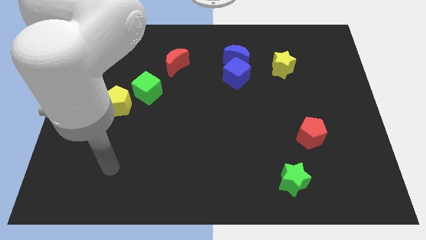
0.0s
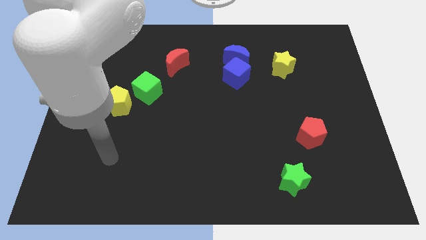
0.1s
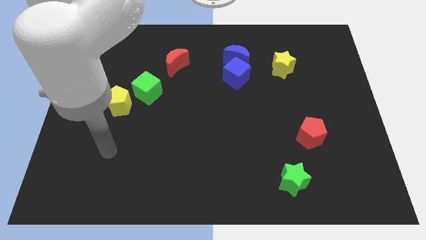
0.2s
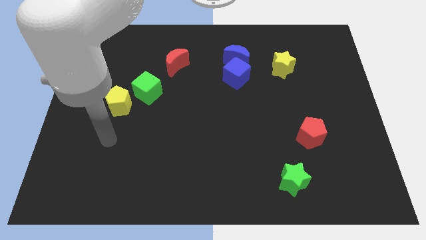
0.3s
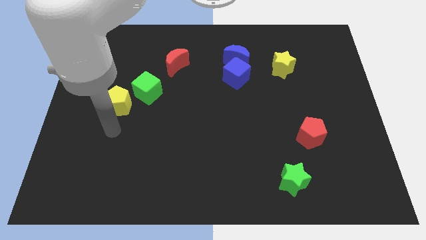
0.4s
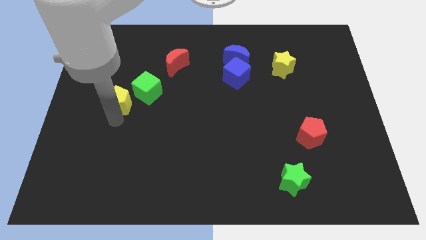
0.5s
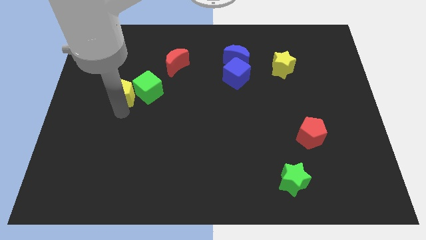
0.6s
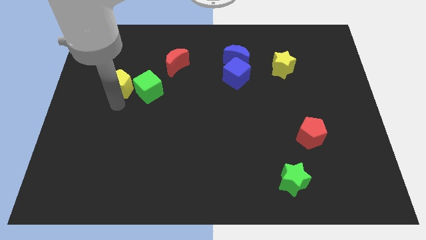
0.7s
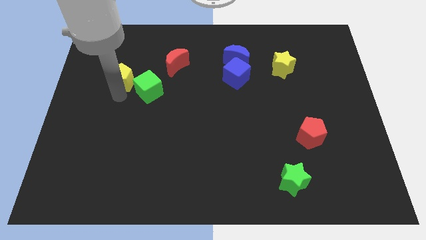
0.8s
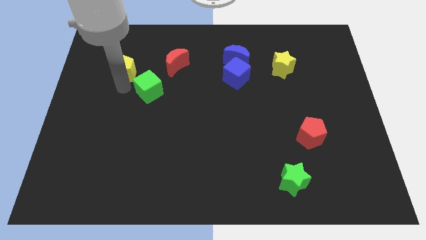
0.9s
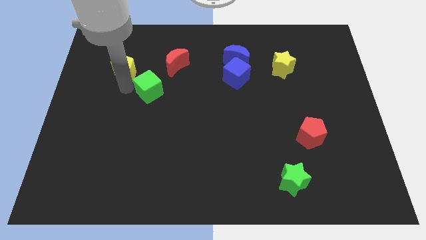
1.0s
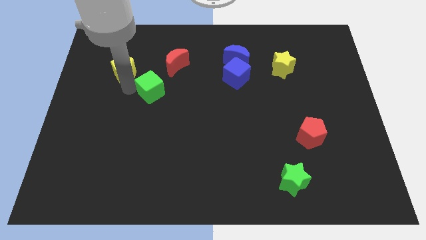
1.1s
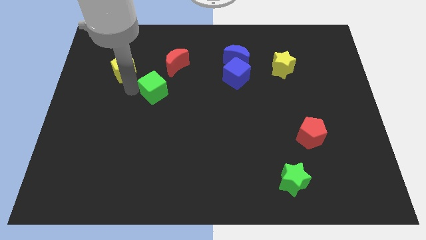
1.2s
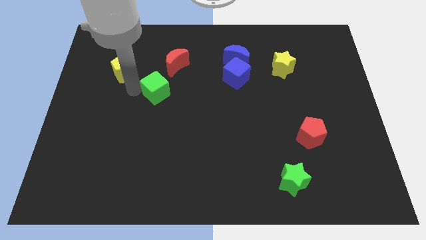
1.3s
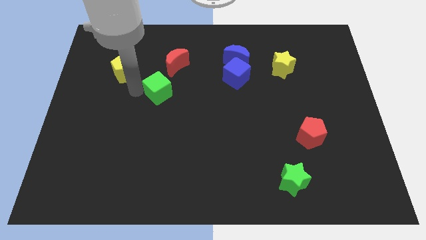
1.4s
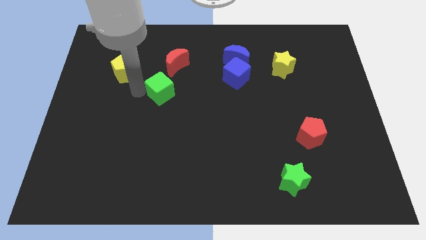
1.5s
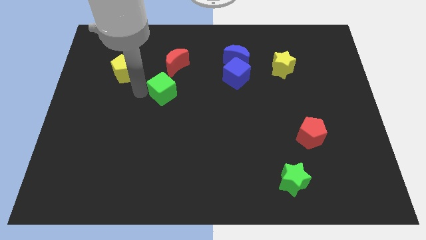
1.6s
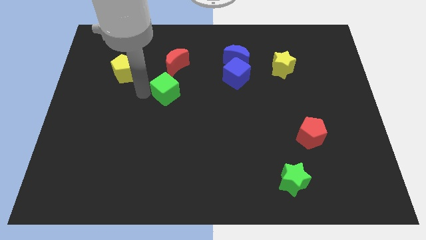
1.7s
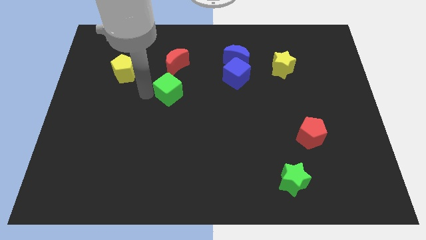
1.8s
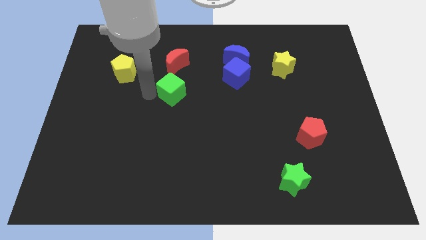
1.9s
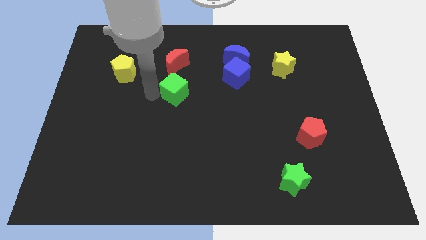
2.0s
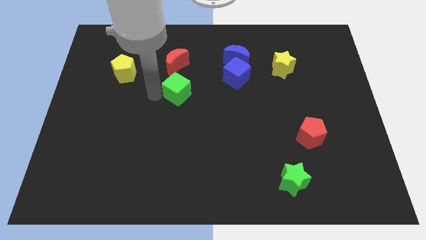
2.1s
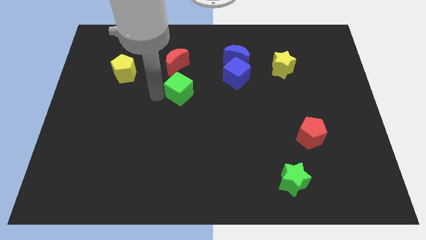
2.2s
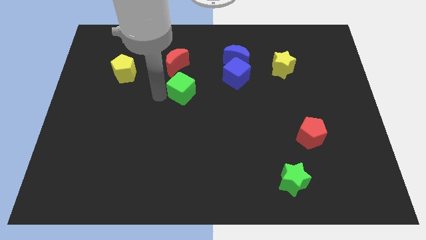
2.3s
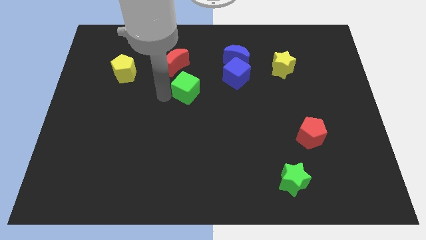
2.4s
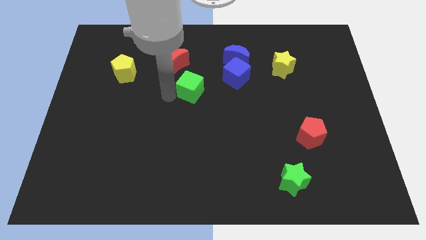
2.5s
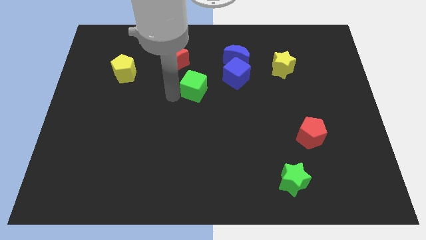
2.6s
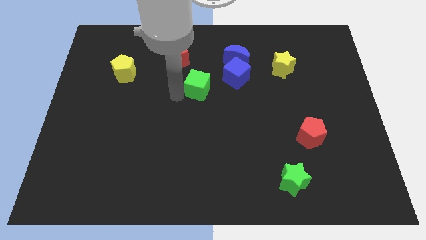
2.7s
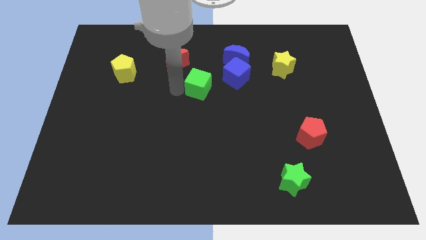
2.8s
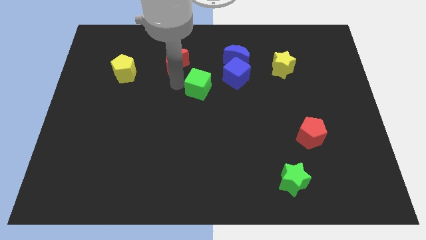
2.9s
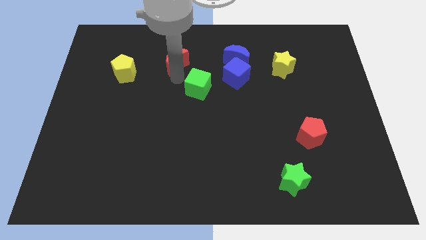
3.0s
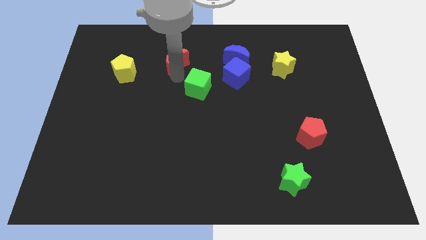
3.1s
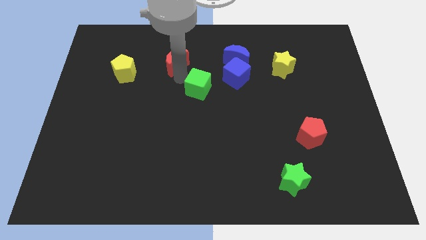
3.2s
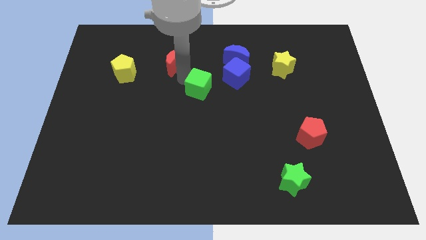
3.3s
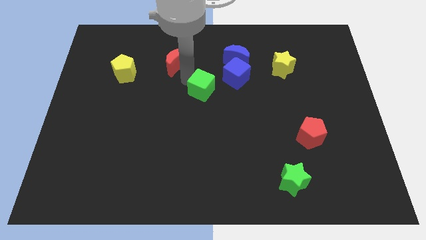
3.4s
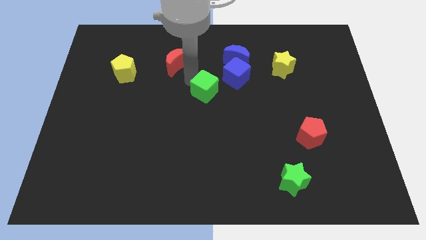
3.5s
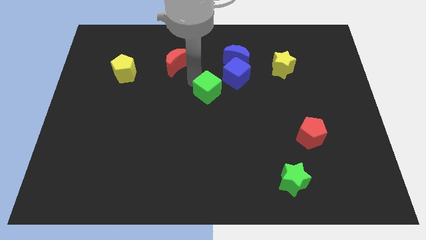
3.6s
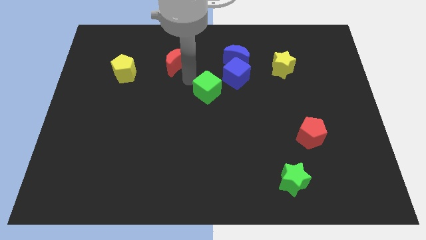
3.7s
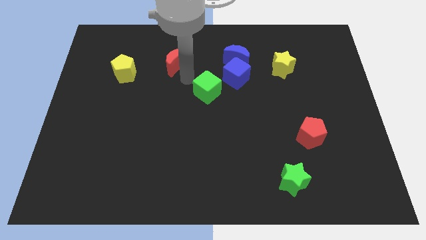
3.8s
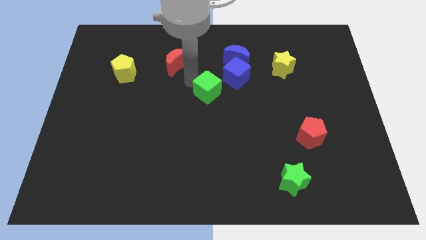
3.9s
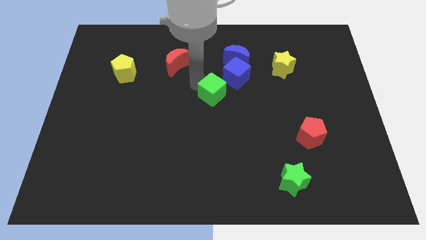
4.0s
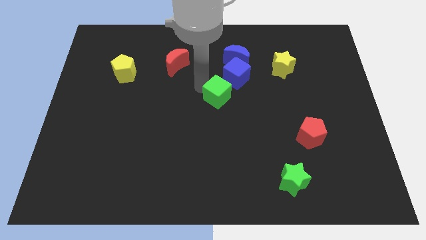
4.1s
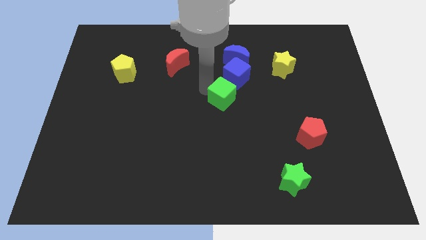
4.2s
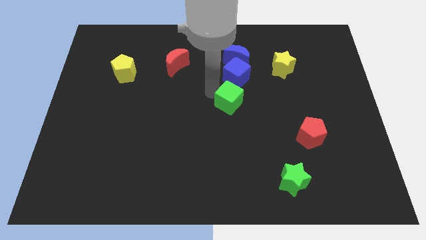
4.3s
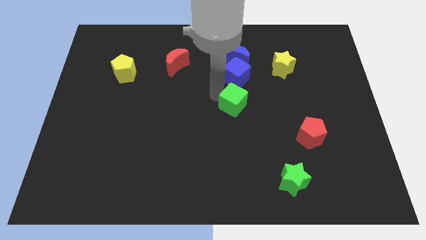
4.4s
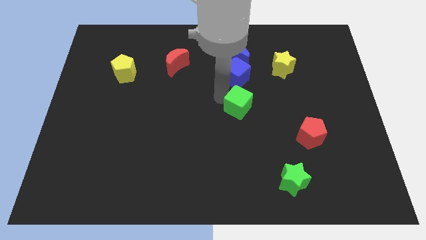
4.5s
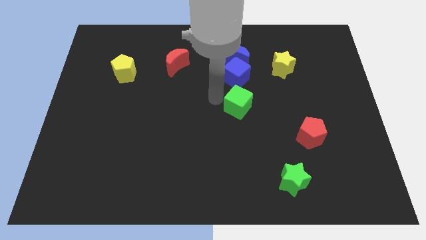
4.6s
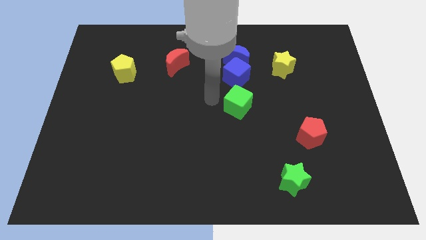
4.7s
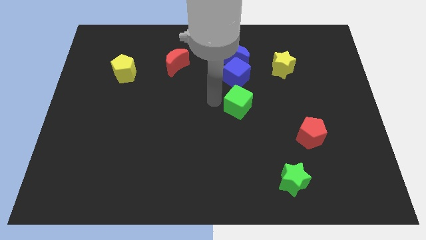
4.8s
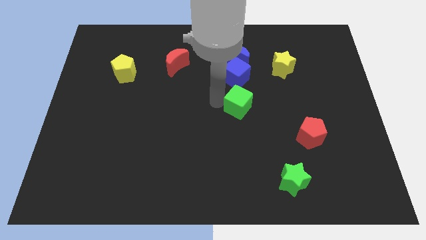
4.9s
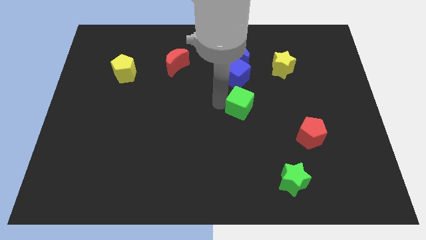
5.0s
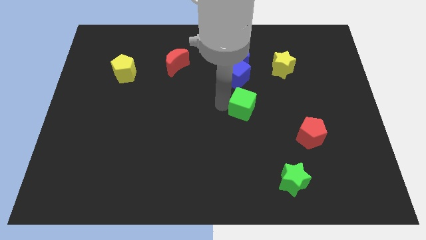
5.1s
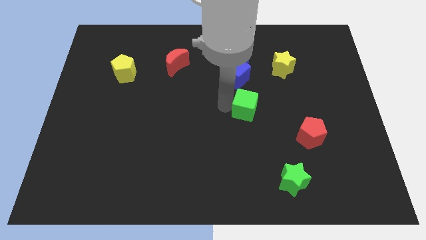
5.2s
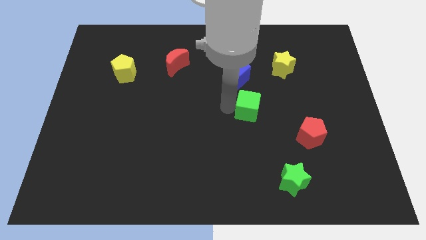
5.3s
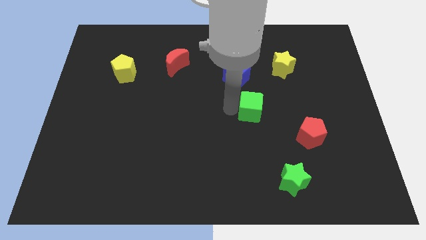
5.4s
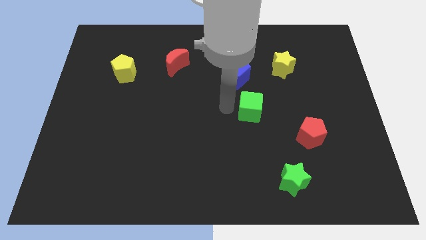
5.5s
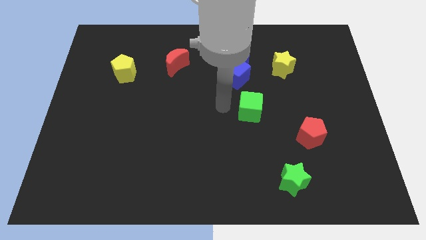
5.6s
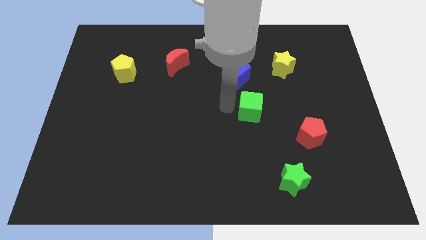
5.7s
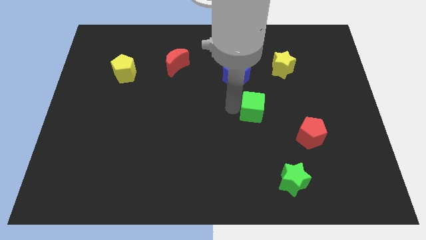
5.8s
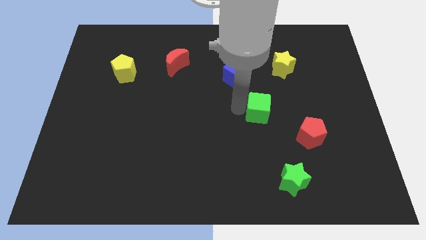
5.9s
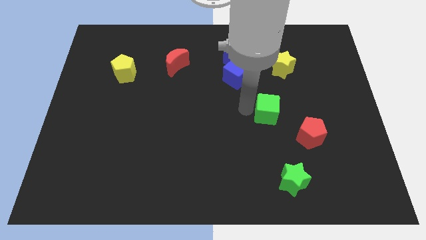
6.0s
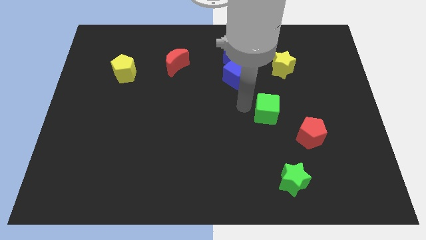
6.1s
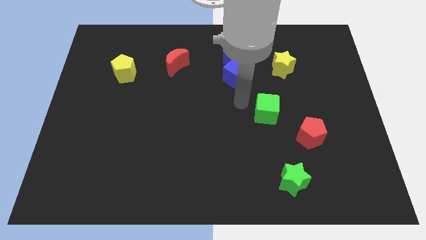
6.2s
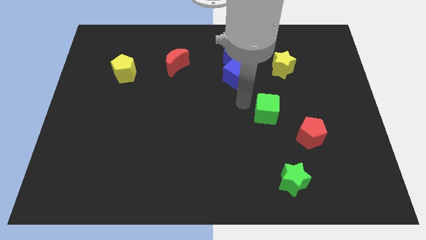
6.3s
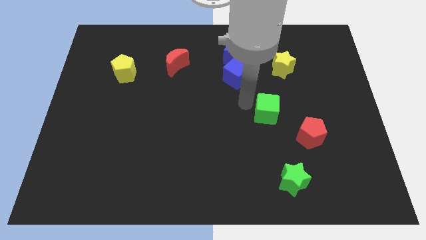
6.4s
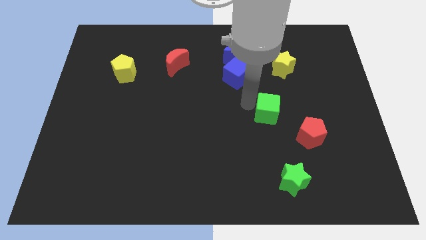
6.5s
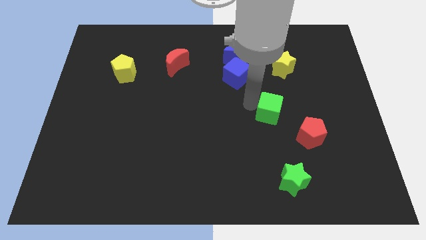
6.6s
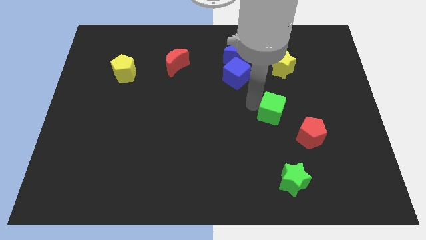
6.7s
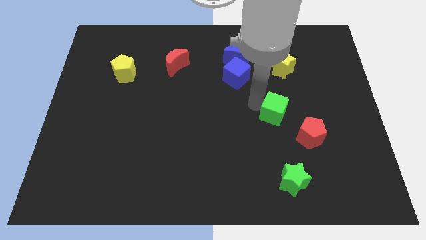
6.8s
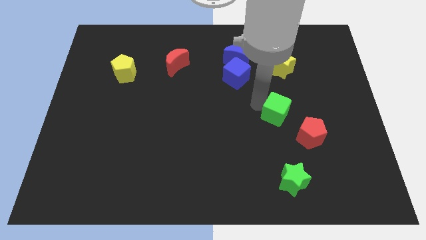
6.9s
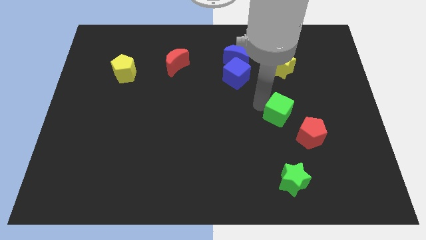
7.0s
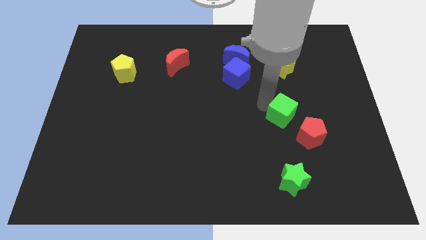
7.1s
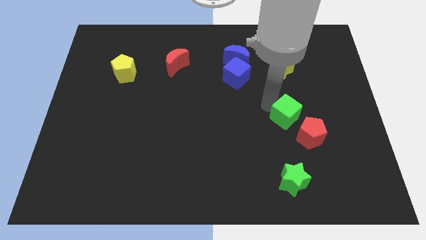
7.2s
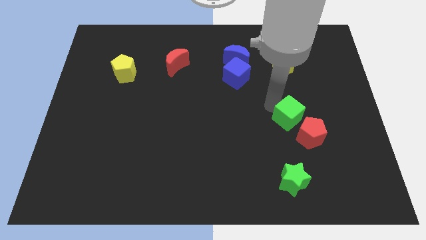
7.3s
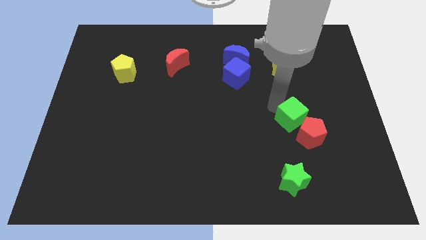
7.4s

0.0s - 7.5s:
put the green cube next to the red pentagon
